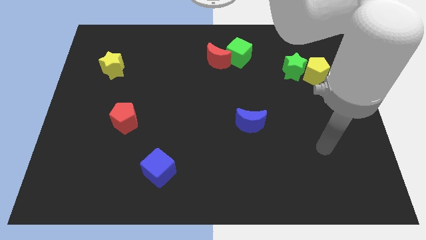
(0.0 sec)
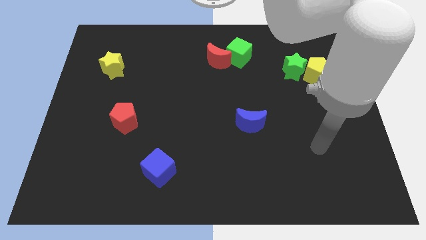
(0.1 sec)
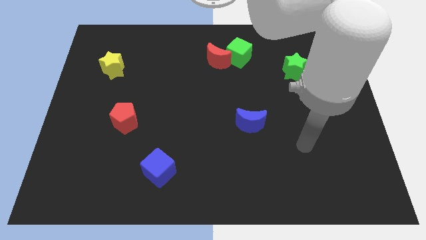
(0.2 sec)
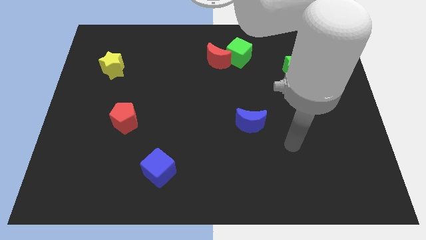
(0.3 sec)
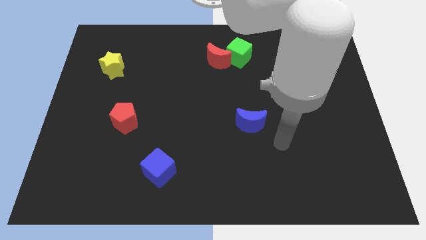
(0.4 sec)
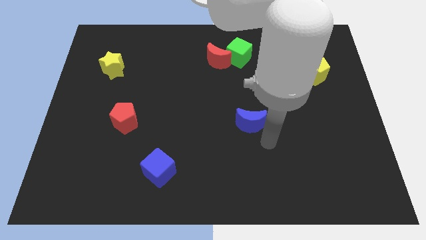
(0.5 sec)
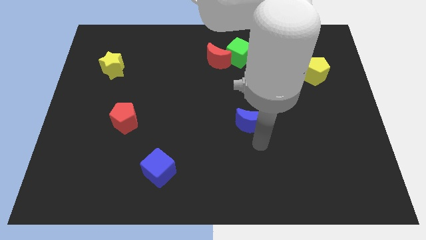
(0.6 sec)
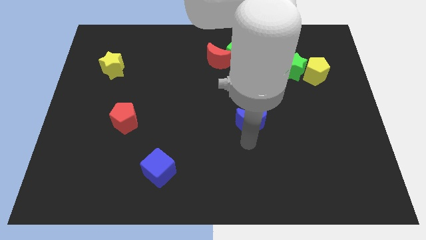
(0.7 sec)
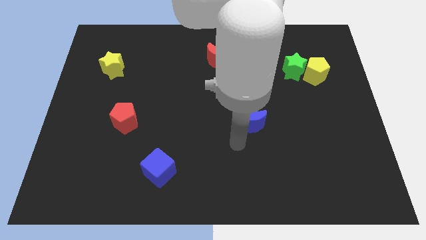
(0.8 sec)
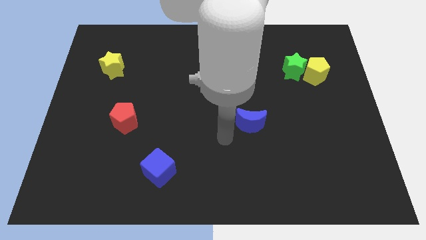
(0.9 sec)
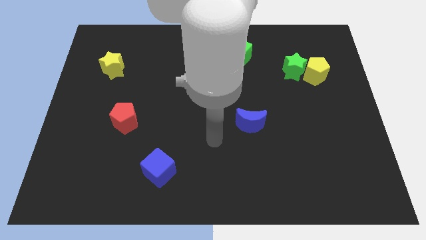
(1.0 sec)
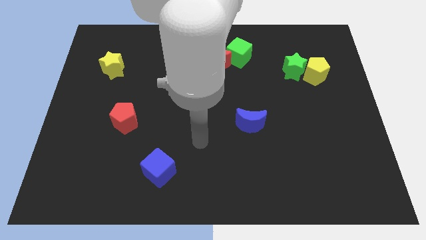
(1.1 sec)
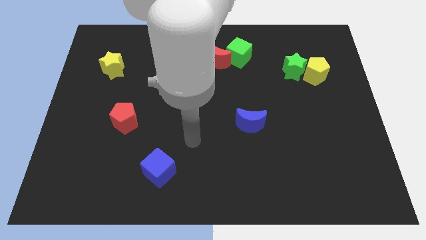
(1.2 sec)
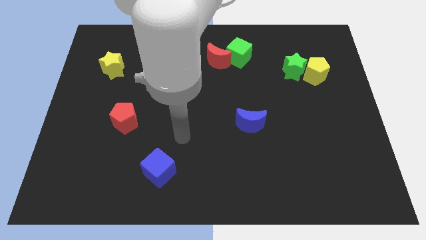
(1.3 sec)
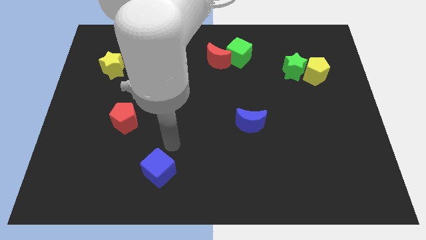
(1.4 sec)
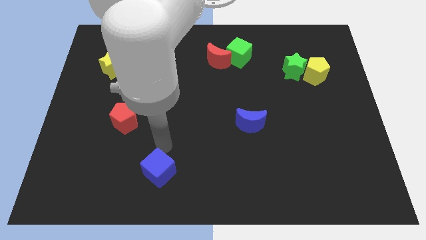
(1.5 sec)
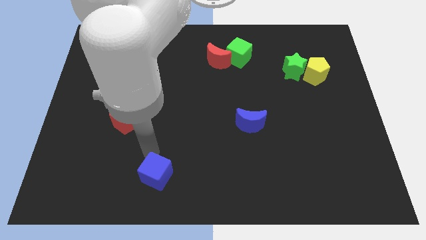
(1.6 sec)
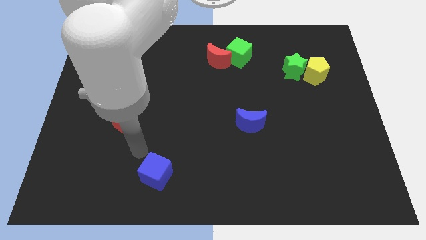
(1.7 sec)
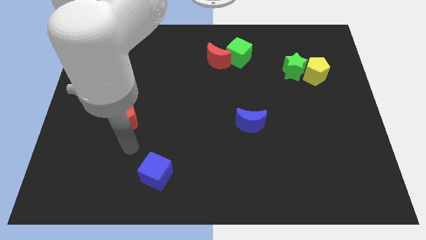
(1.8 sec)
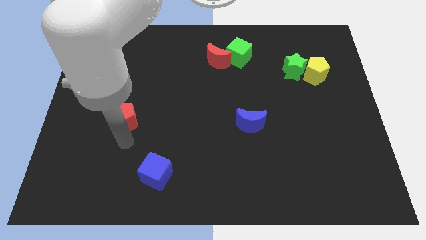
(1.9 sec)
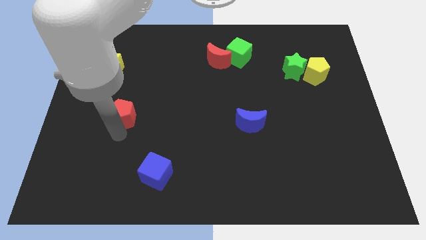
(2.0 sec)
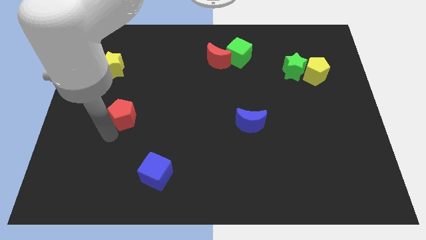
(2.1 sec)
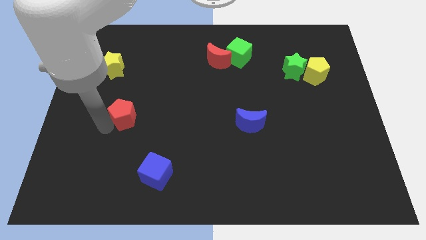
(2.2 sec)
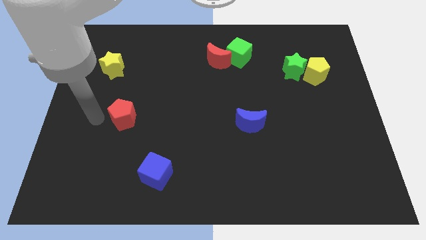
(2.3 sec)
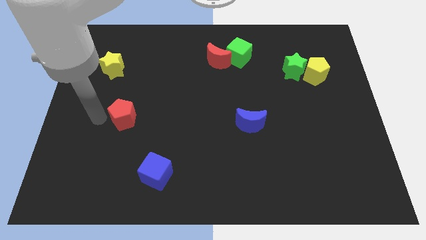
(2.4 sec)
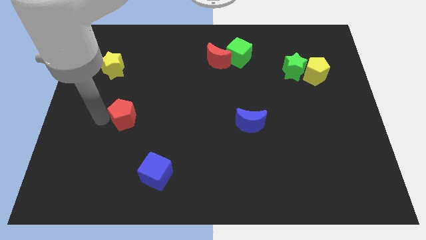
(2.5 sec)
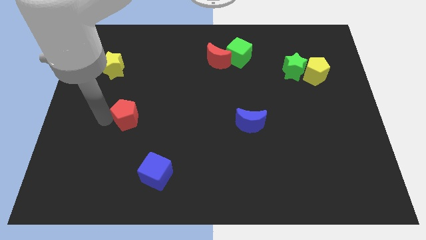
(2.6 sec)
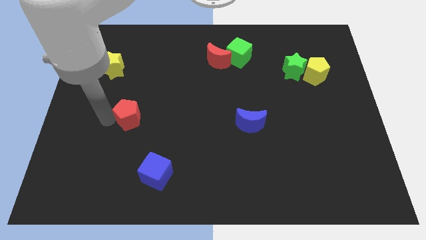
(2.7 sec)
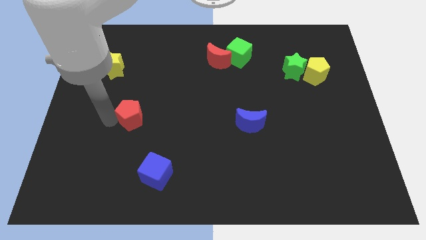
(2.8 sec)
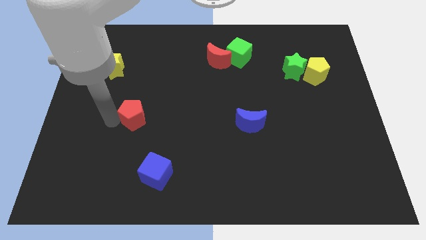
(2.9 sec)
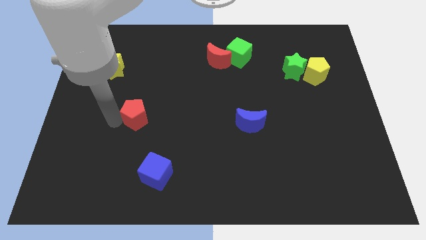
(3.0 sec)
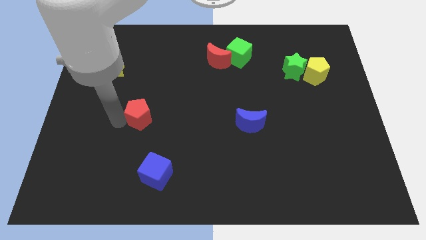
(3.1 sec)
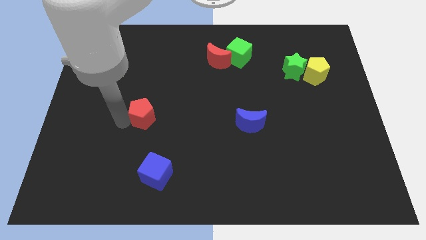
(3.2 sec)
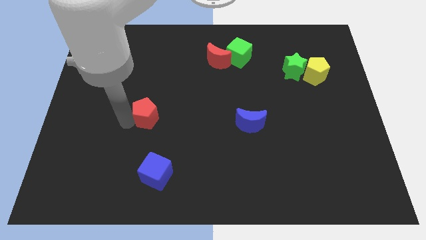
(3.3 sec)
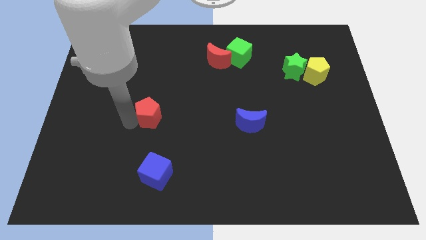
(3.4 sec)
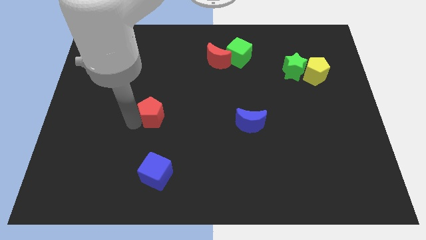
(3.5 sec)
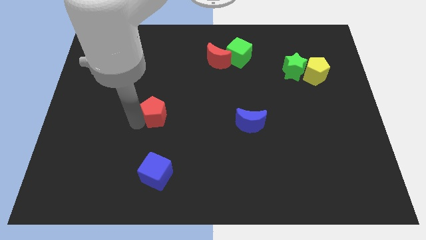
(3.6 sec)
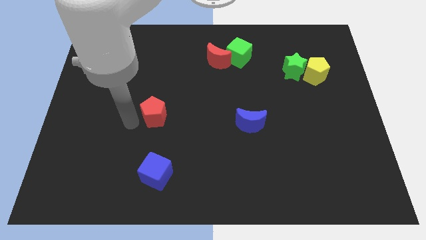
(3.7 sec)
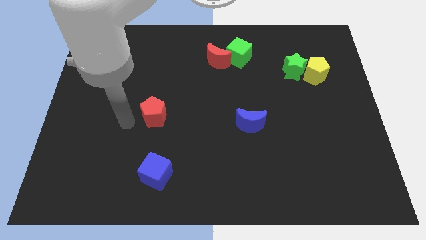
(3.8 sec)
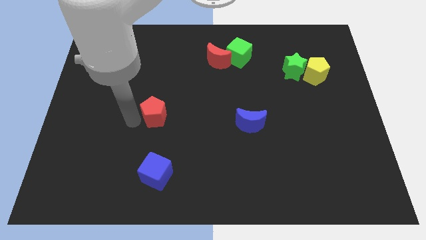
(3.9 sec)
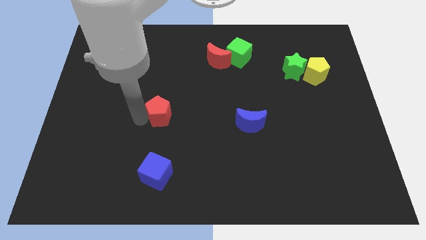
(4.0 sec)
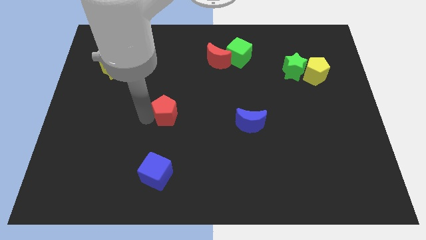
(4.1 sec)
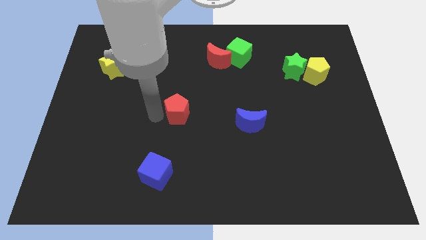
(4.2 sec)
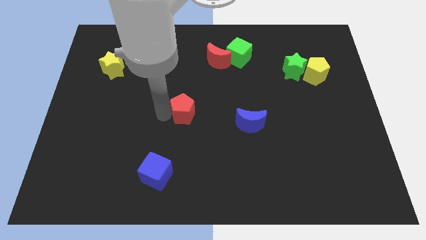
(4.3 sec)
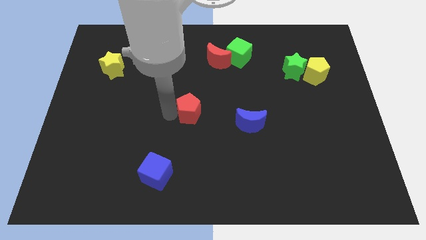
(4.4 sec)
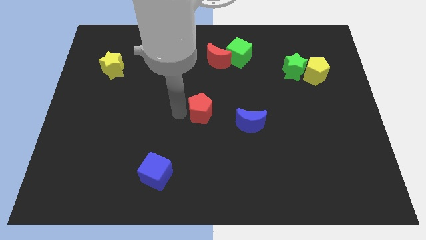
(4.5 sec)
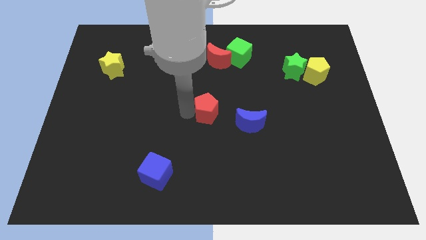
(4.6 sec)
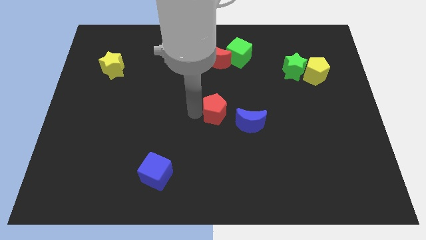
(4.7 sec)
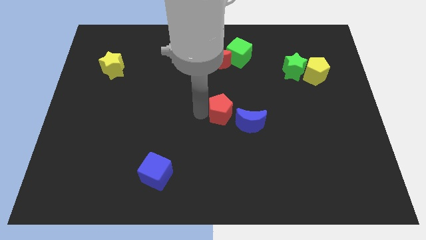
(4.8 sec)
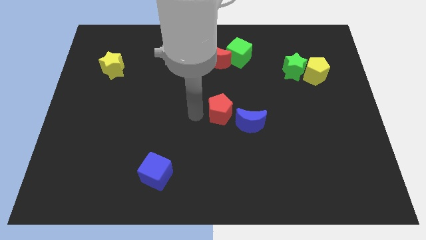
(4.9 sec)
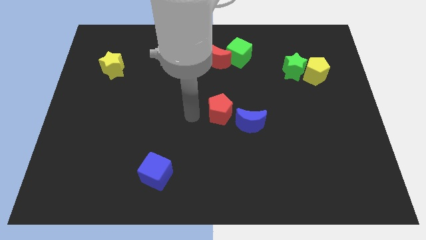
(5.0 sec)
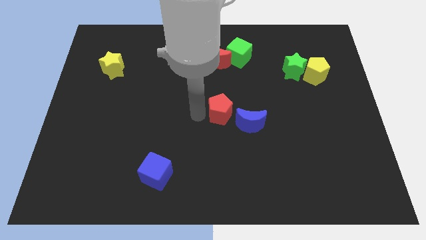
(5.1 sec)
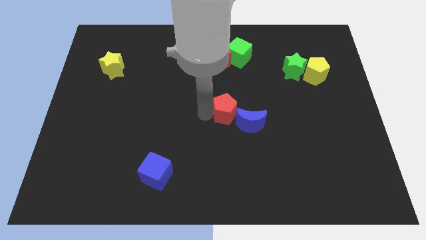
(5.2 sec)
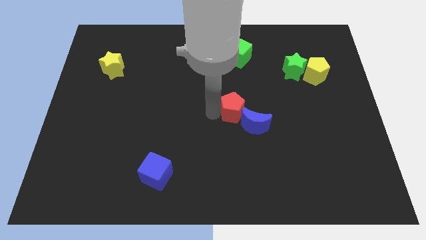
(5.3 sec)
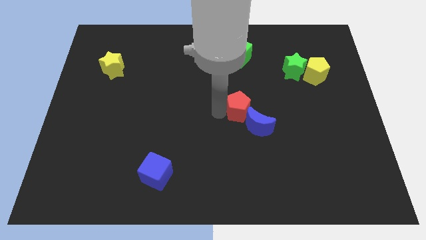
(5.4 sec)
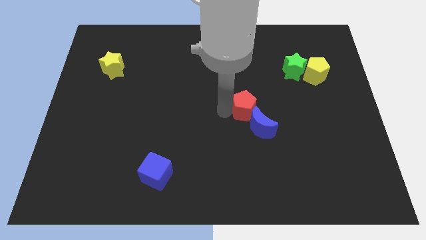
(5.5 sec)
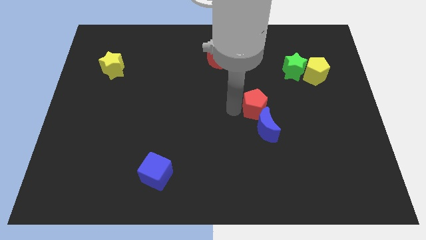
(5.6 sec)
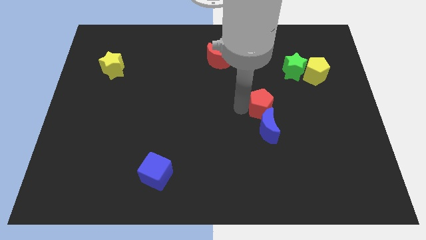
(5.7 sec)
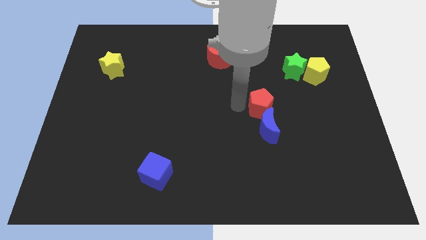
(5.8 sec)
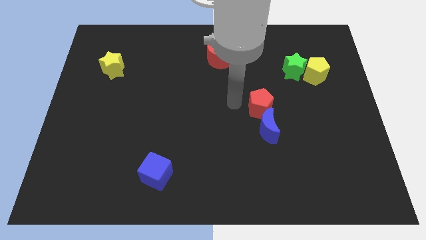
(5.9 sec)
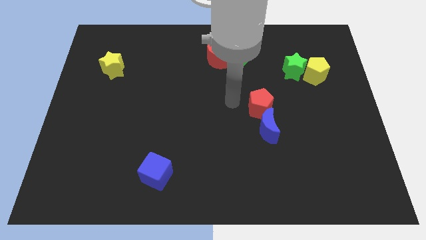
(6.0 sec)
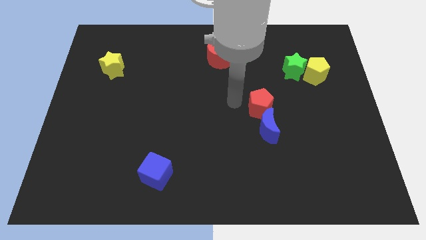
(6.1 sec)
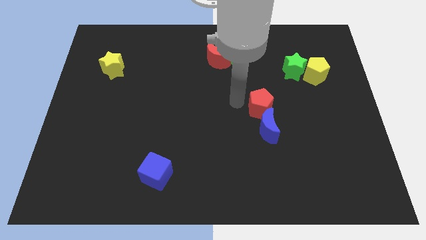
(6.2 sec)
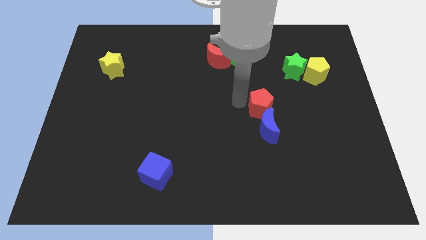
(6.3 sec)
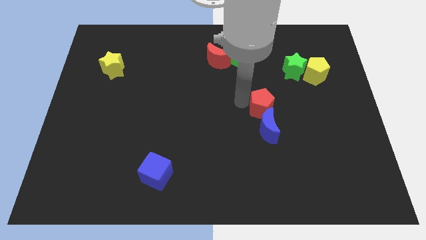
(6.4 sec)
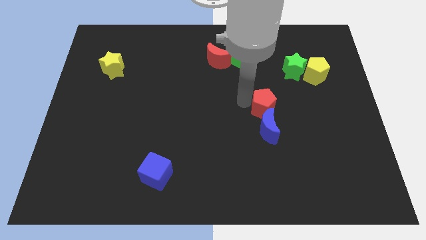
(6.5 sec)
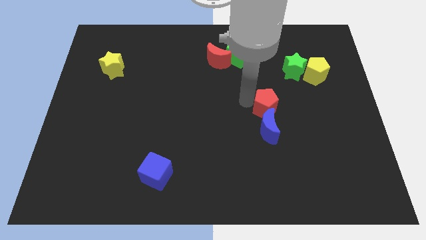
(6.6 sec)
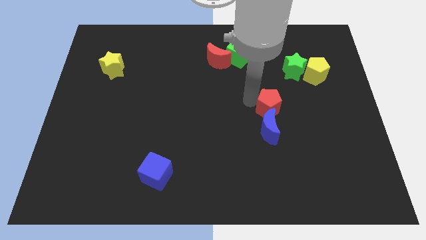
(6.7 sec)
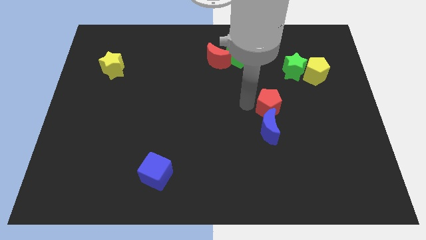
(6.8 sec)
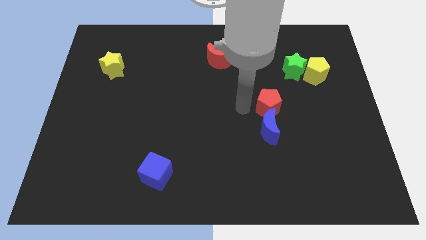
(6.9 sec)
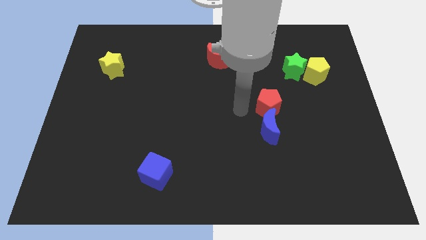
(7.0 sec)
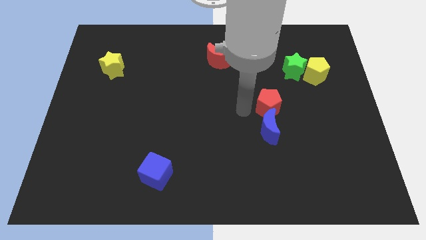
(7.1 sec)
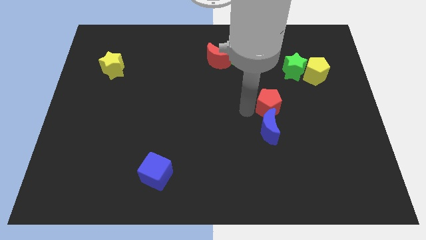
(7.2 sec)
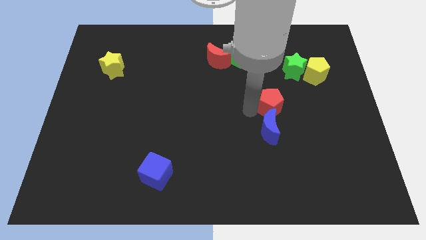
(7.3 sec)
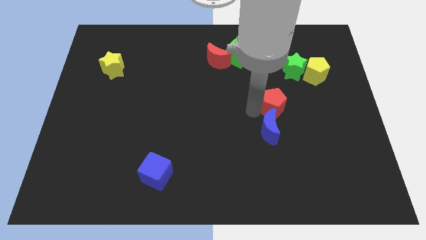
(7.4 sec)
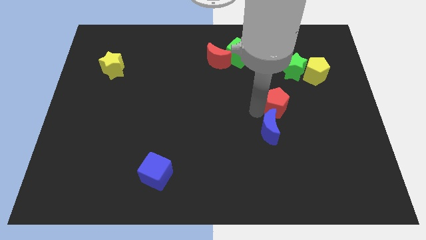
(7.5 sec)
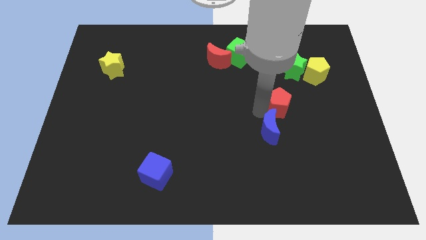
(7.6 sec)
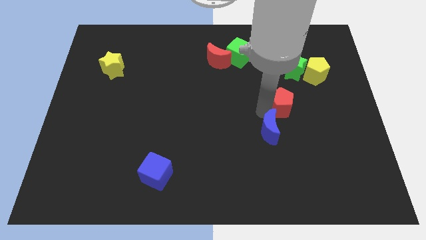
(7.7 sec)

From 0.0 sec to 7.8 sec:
move the red pentagon to the bottom of the green star

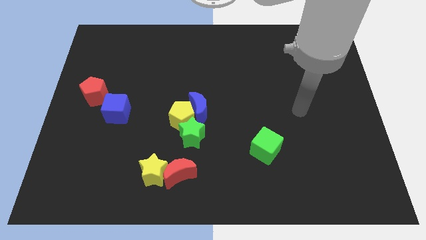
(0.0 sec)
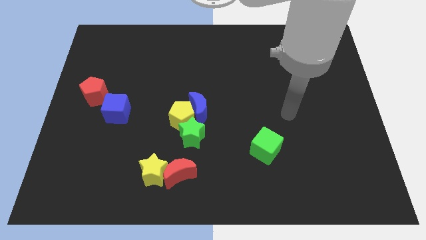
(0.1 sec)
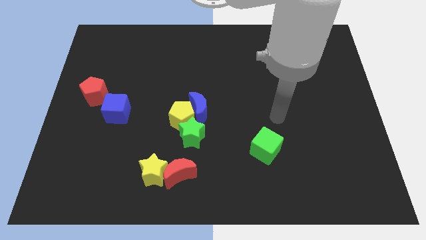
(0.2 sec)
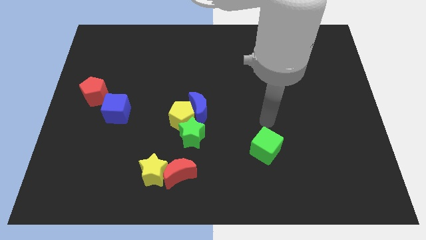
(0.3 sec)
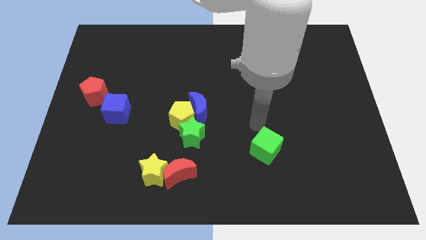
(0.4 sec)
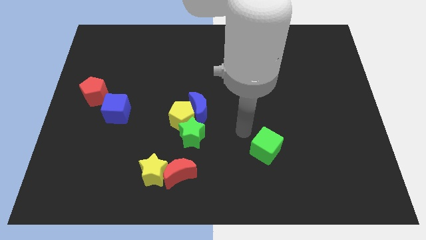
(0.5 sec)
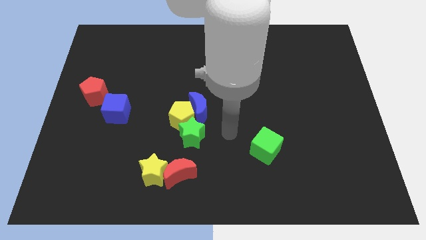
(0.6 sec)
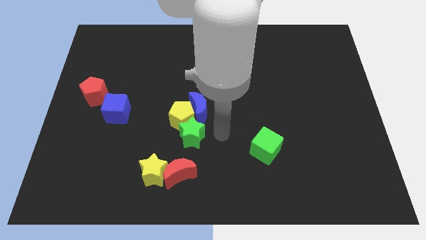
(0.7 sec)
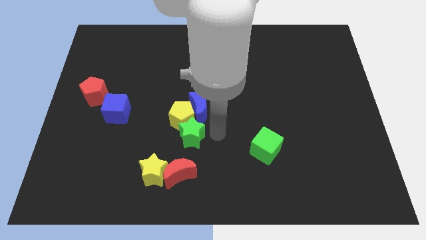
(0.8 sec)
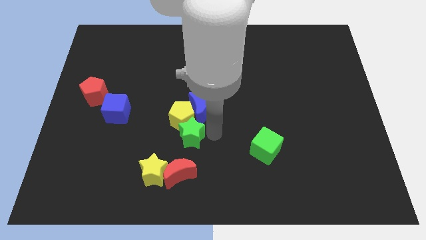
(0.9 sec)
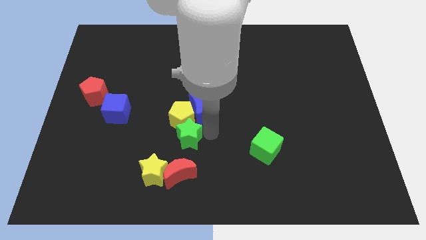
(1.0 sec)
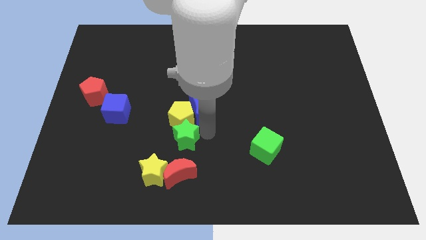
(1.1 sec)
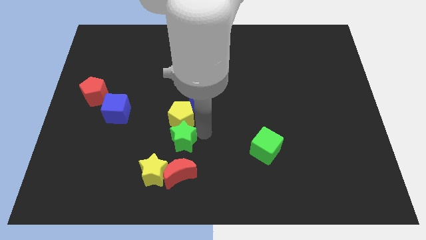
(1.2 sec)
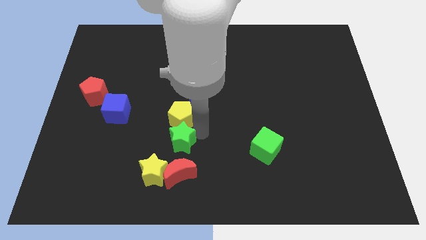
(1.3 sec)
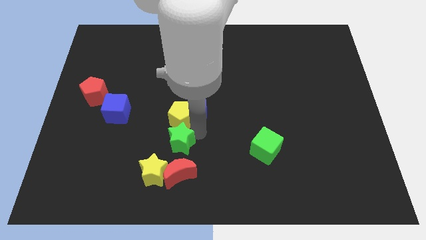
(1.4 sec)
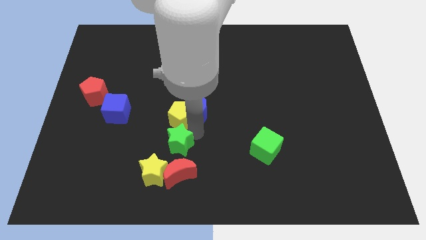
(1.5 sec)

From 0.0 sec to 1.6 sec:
move the green star diagonally up and to the left of the red moon
